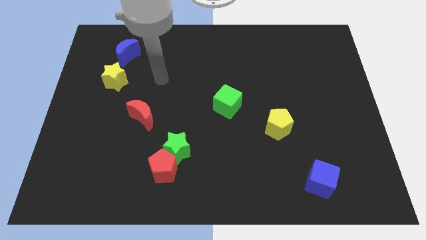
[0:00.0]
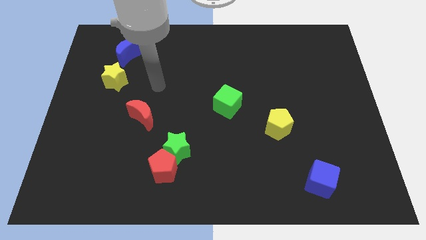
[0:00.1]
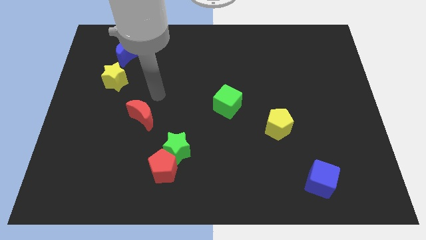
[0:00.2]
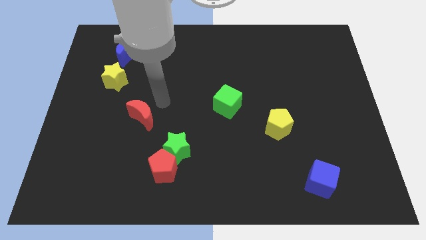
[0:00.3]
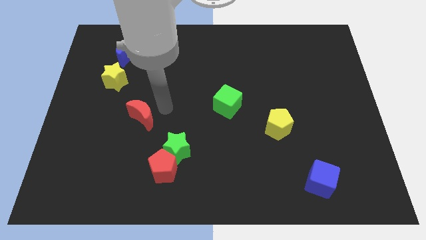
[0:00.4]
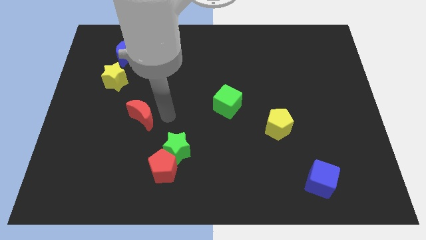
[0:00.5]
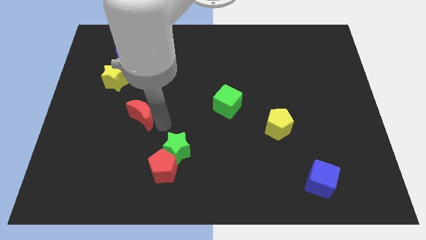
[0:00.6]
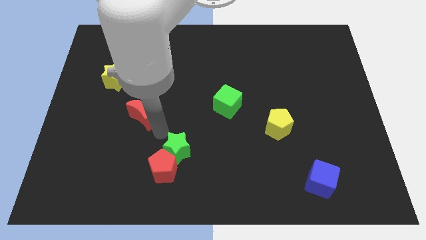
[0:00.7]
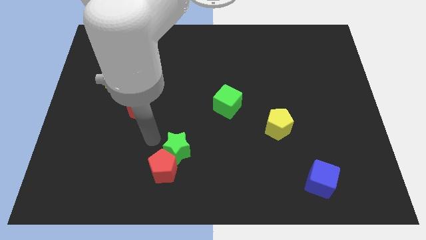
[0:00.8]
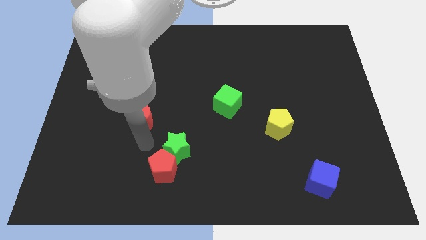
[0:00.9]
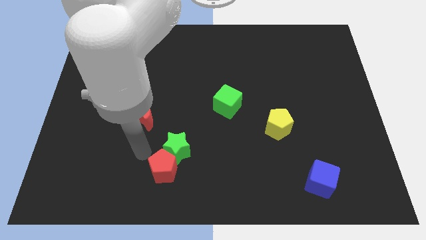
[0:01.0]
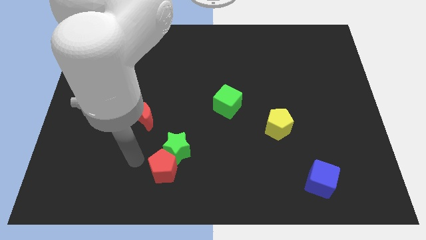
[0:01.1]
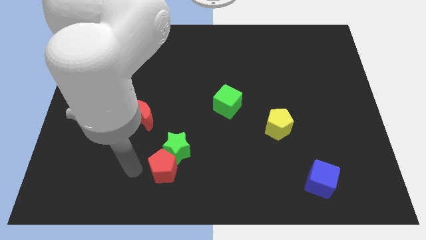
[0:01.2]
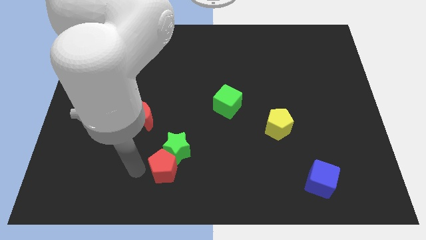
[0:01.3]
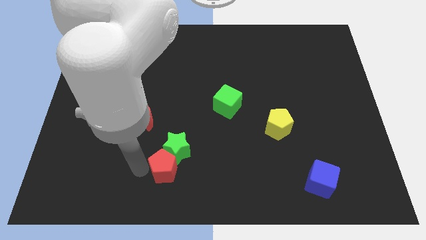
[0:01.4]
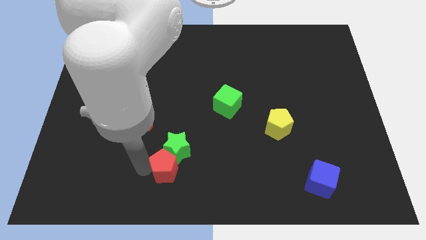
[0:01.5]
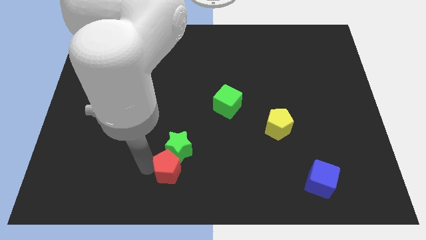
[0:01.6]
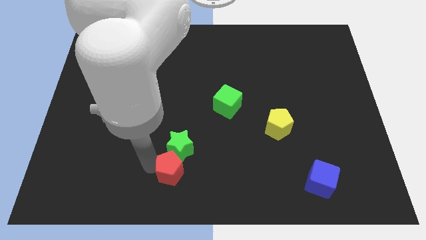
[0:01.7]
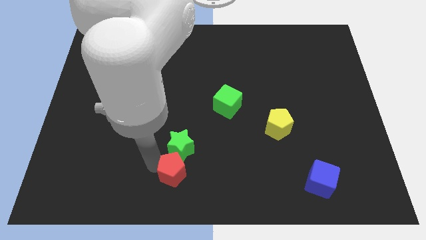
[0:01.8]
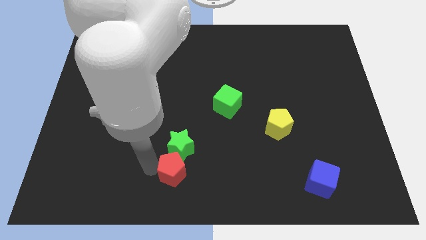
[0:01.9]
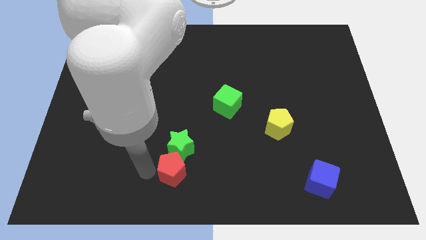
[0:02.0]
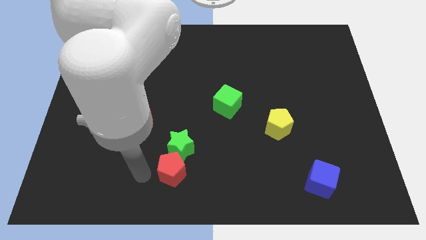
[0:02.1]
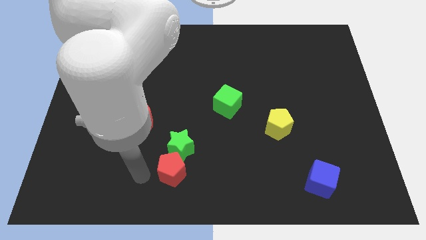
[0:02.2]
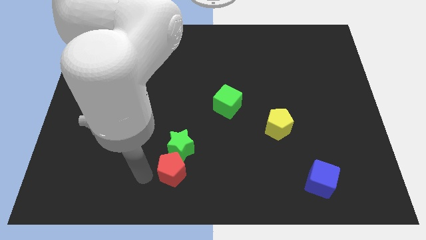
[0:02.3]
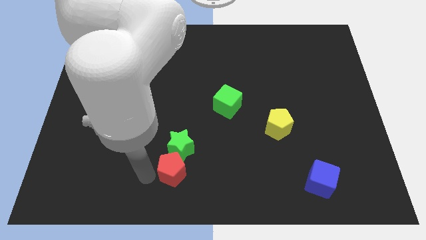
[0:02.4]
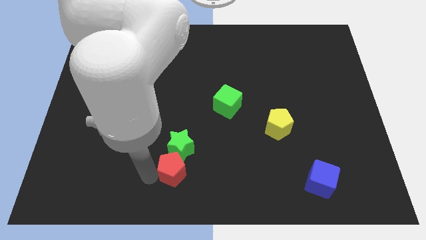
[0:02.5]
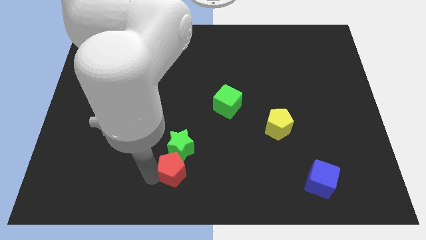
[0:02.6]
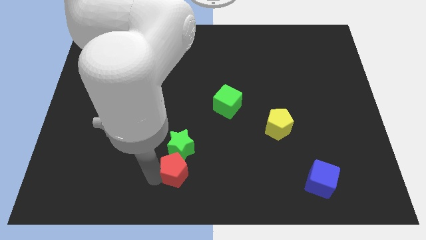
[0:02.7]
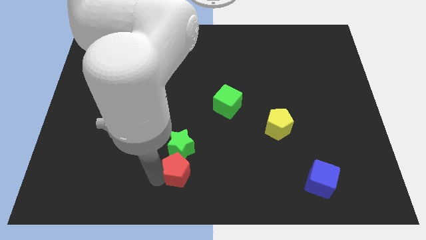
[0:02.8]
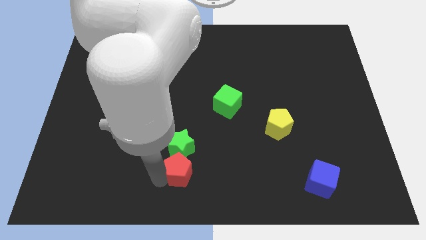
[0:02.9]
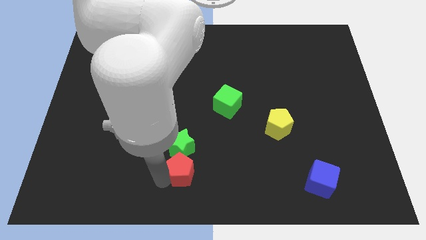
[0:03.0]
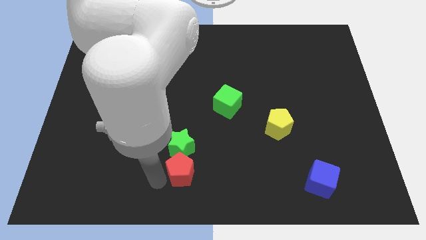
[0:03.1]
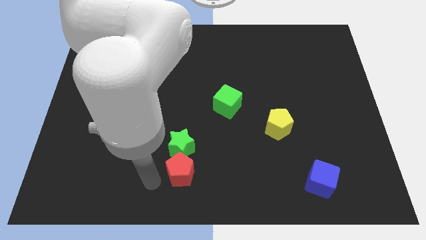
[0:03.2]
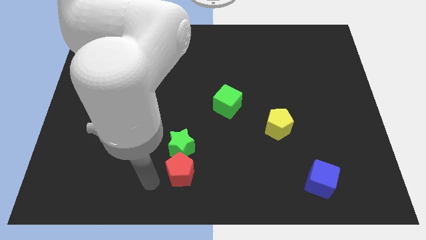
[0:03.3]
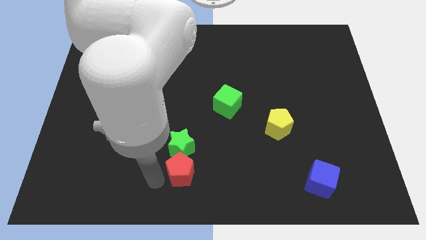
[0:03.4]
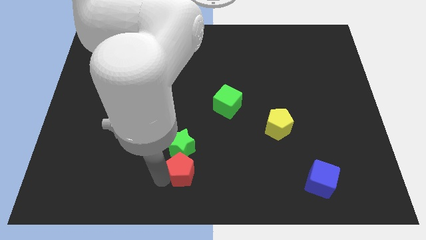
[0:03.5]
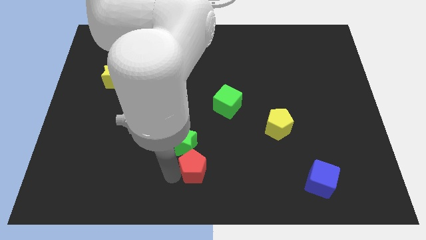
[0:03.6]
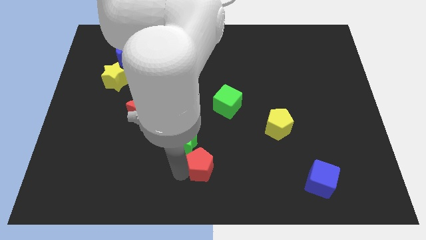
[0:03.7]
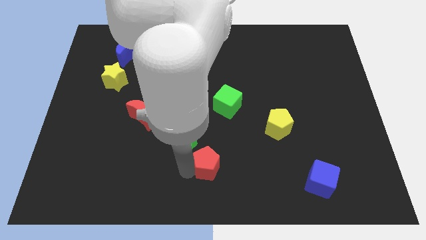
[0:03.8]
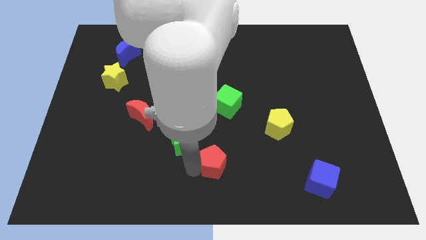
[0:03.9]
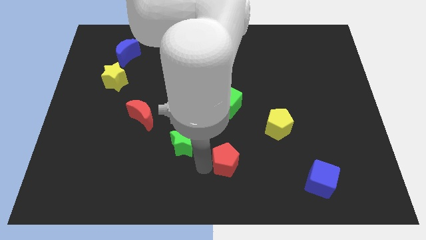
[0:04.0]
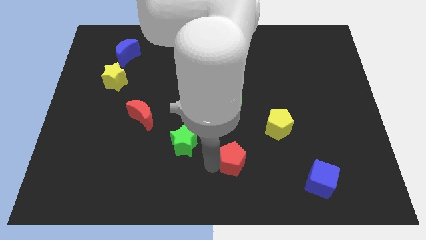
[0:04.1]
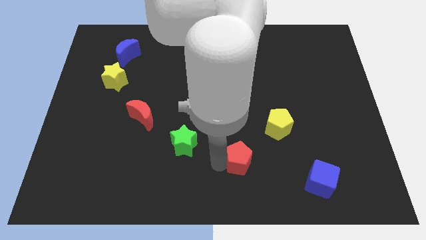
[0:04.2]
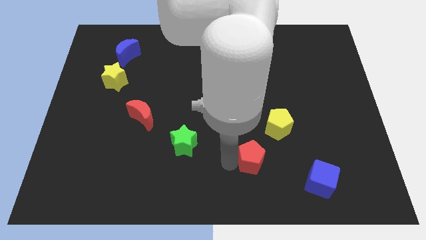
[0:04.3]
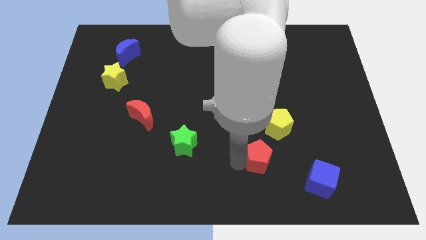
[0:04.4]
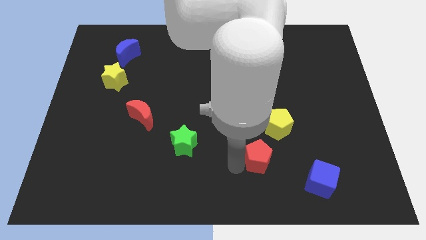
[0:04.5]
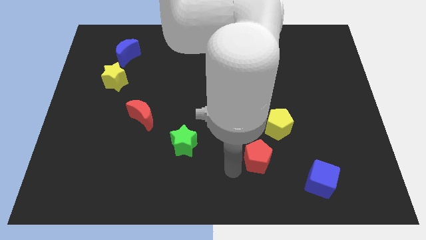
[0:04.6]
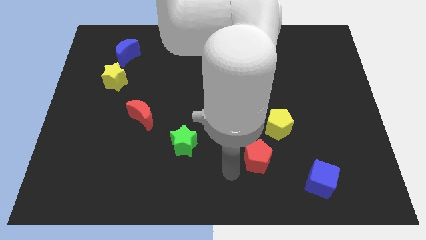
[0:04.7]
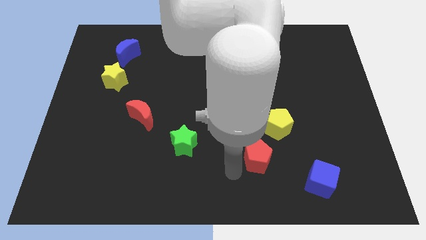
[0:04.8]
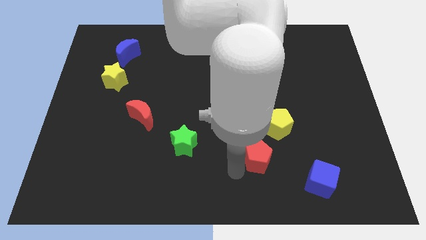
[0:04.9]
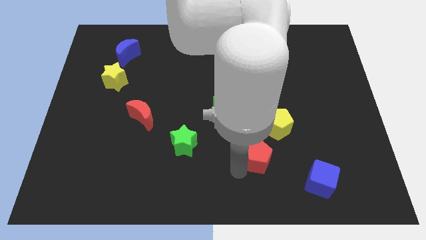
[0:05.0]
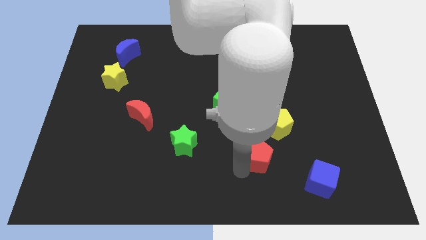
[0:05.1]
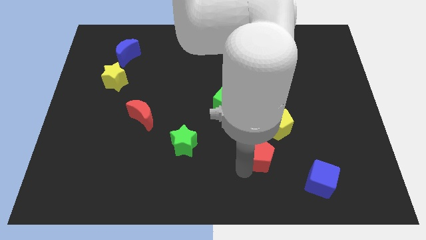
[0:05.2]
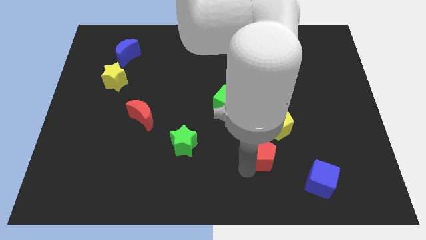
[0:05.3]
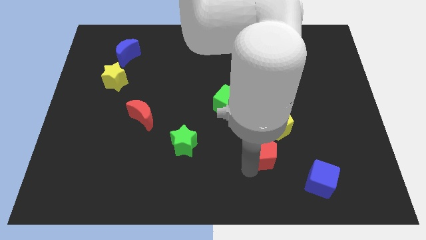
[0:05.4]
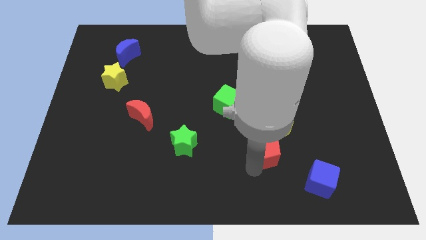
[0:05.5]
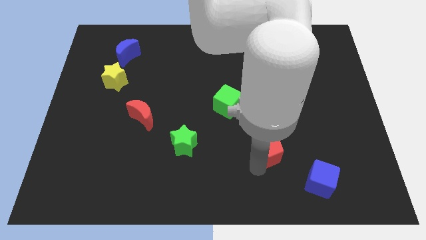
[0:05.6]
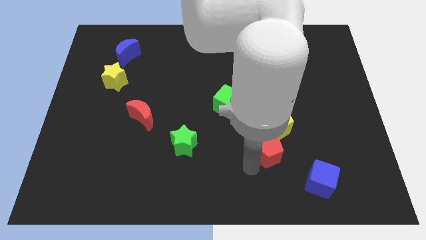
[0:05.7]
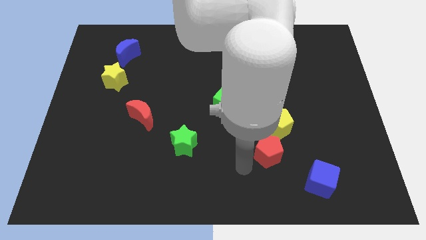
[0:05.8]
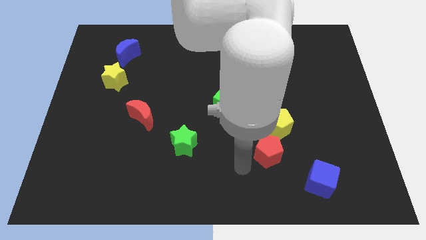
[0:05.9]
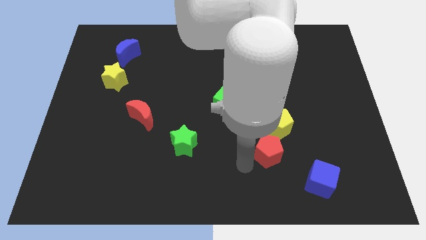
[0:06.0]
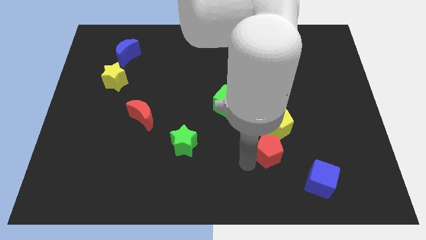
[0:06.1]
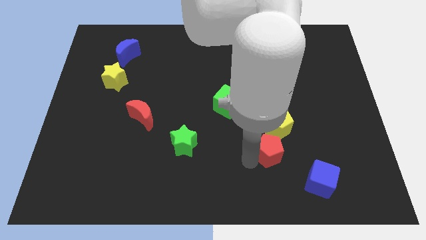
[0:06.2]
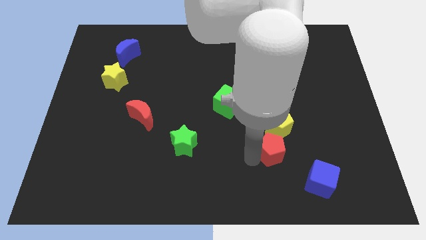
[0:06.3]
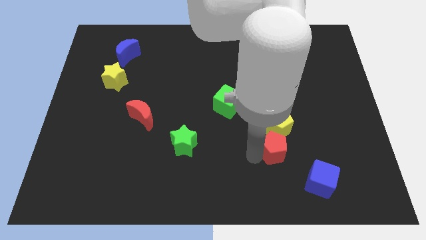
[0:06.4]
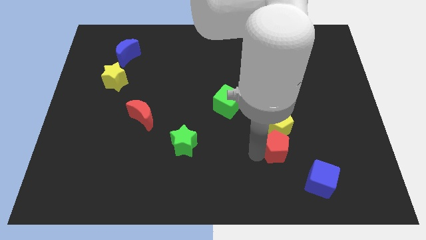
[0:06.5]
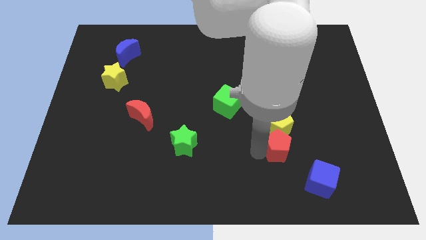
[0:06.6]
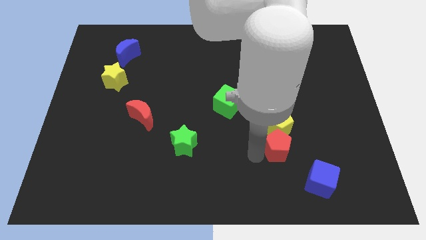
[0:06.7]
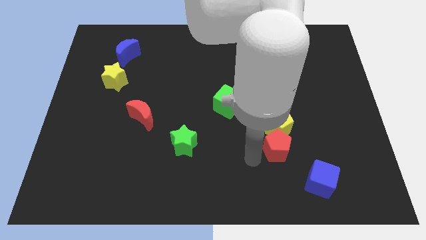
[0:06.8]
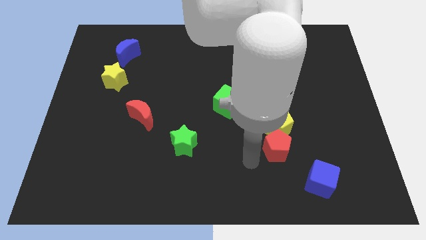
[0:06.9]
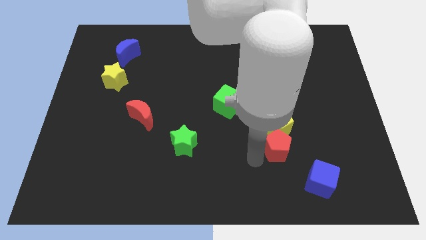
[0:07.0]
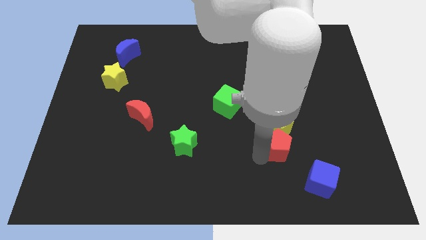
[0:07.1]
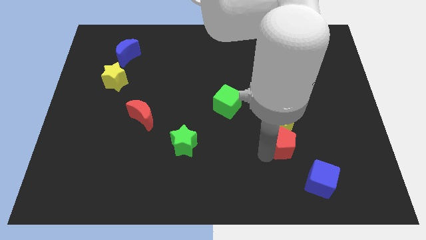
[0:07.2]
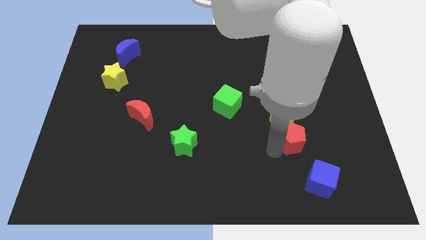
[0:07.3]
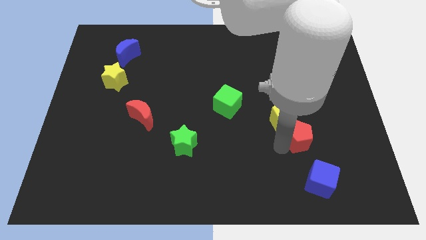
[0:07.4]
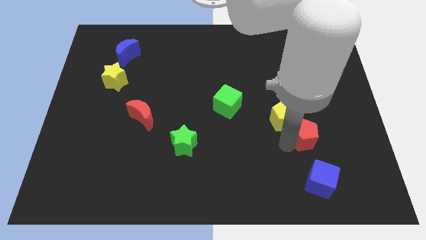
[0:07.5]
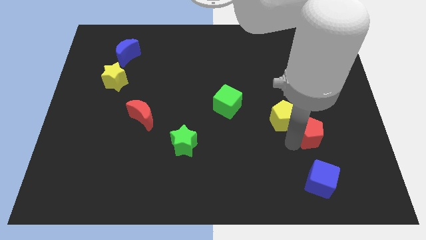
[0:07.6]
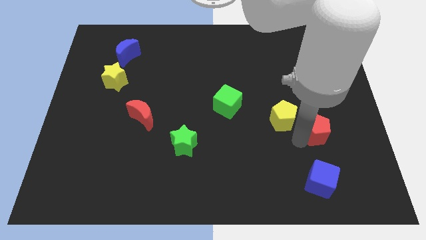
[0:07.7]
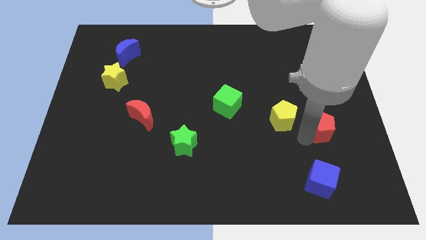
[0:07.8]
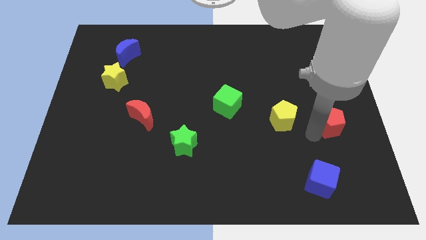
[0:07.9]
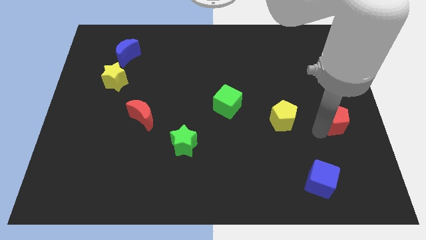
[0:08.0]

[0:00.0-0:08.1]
move the red pentagon to the center right
